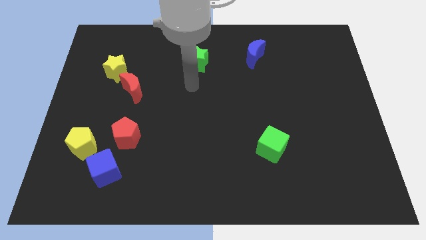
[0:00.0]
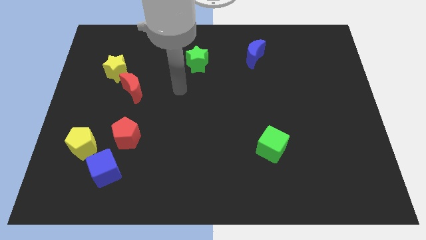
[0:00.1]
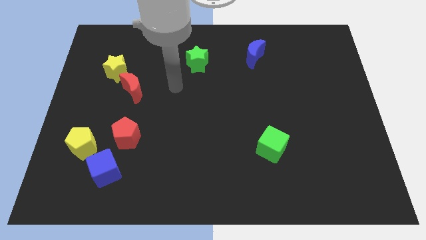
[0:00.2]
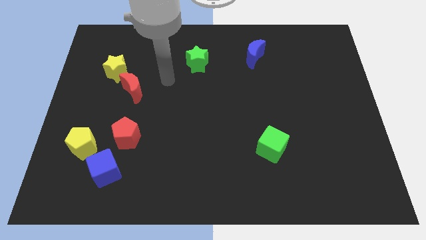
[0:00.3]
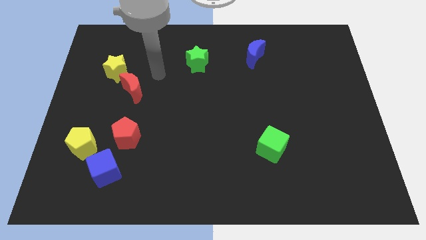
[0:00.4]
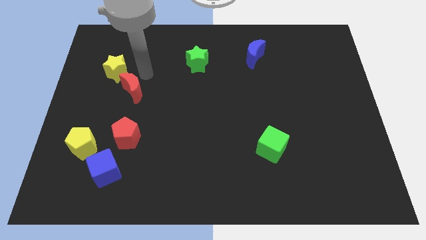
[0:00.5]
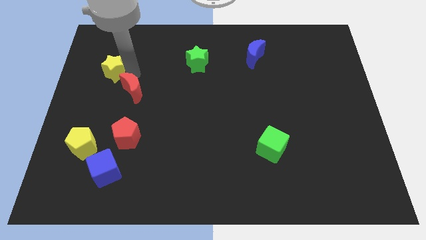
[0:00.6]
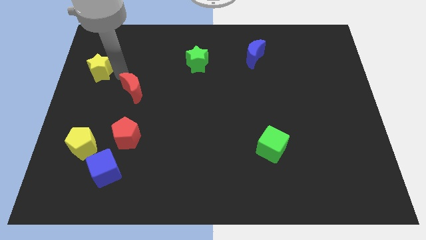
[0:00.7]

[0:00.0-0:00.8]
move the red moon away from the yellow star

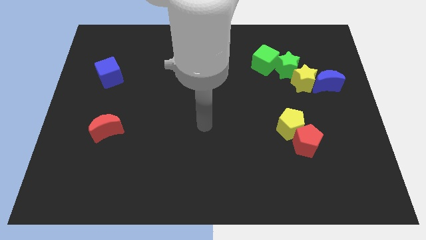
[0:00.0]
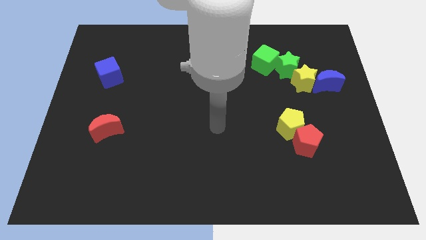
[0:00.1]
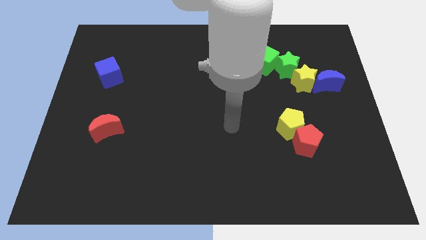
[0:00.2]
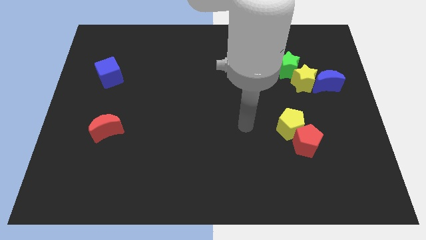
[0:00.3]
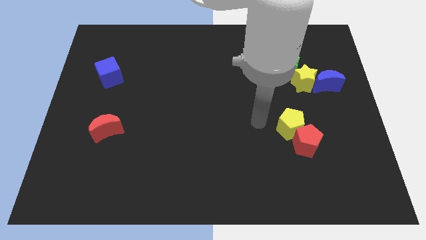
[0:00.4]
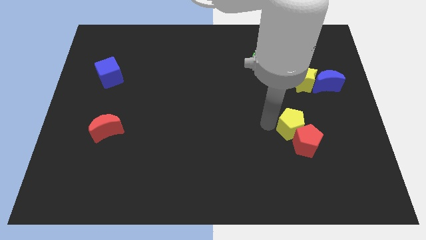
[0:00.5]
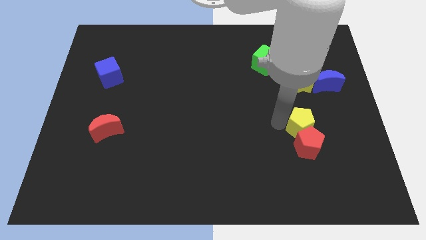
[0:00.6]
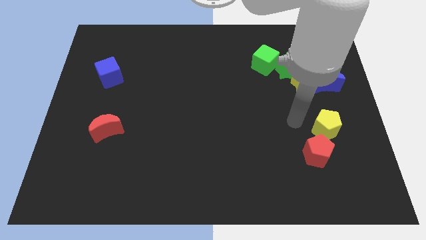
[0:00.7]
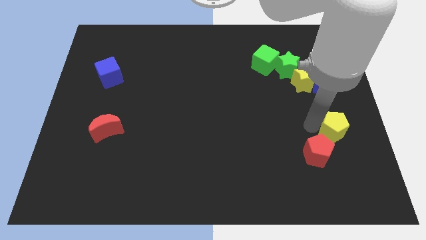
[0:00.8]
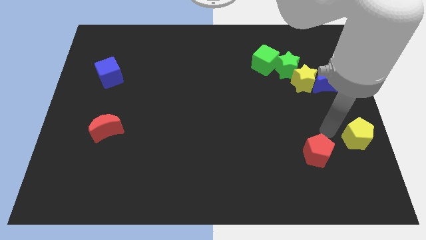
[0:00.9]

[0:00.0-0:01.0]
separate the red pentagon from the yellow pentagon

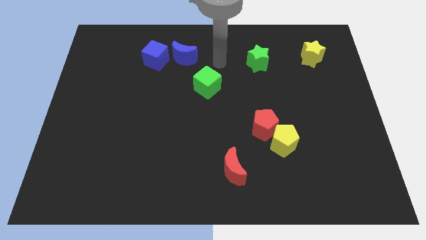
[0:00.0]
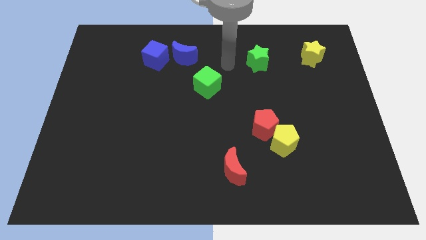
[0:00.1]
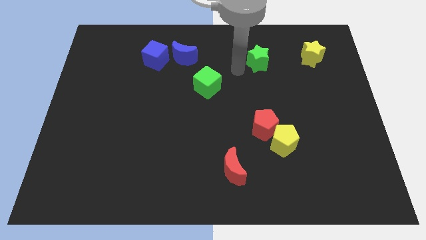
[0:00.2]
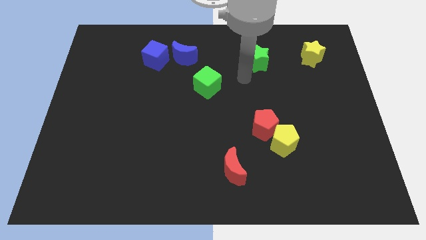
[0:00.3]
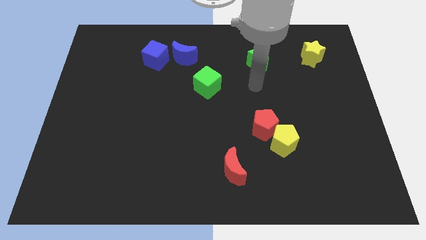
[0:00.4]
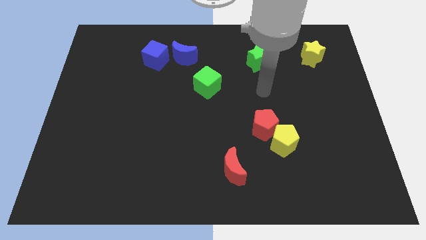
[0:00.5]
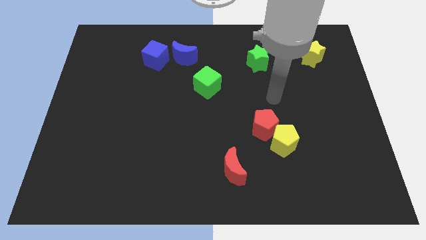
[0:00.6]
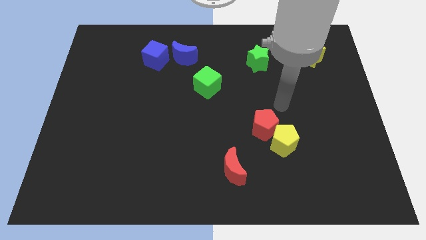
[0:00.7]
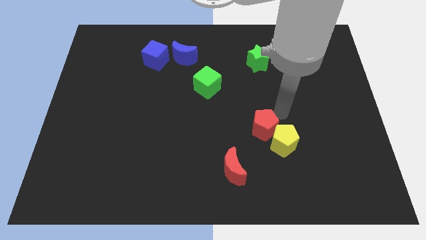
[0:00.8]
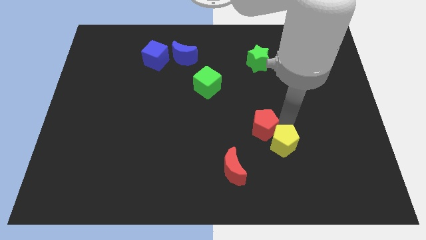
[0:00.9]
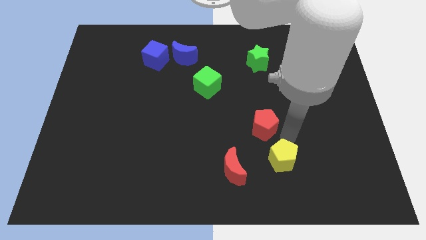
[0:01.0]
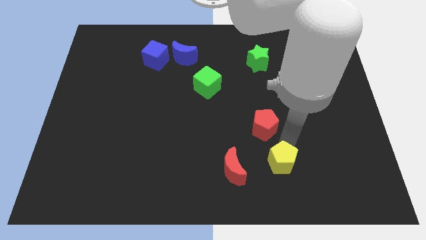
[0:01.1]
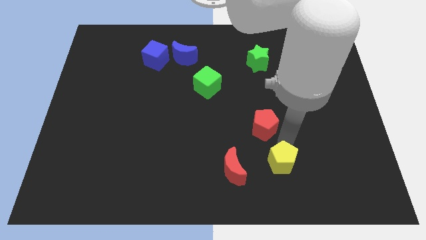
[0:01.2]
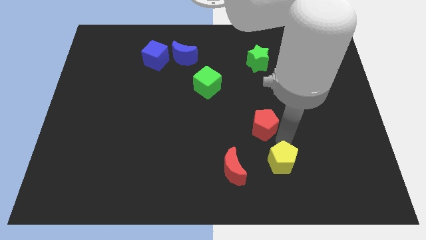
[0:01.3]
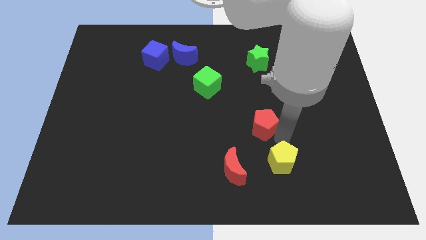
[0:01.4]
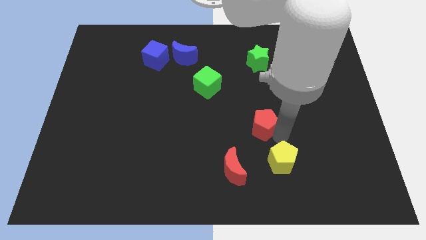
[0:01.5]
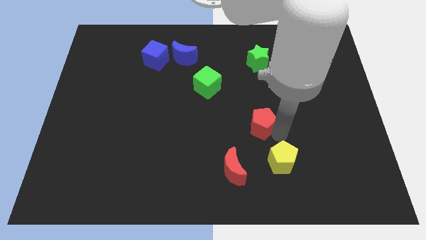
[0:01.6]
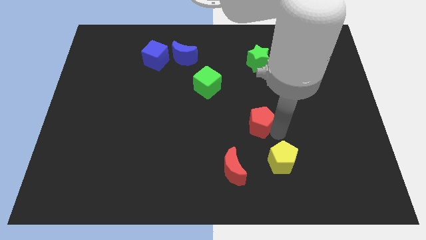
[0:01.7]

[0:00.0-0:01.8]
move the red pentagon away from the yellow pentagon

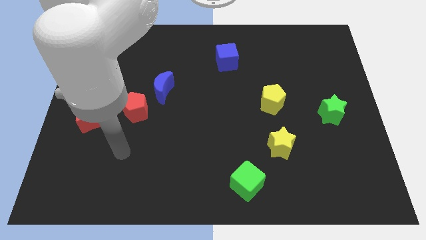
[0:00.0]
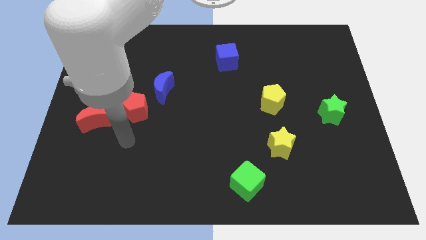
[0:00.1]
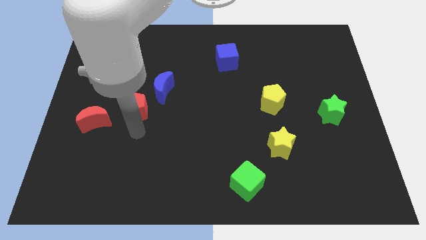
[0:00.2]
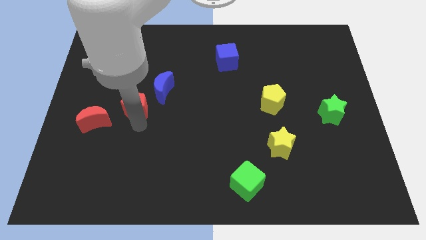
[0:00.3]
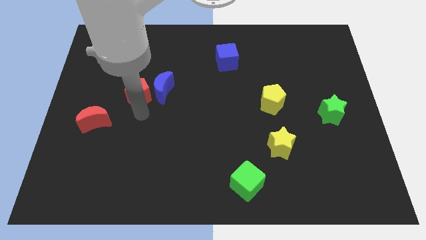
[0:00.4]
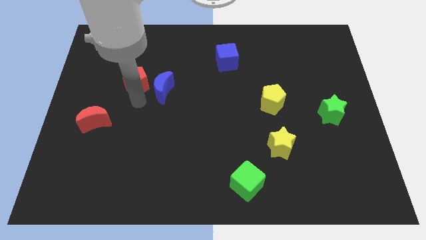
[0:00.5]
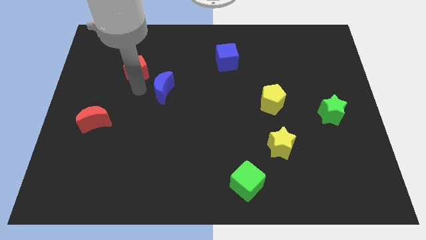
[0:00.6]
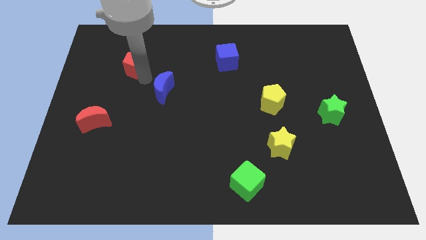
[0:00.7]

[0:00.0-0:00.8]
move the blue moon away from the red pentagon

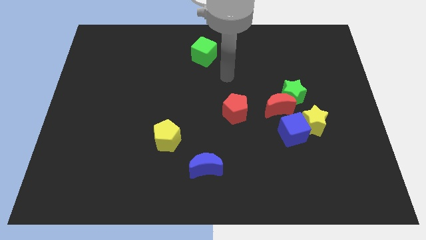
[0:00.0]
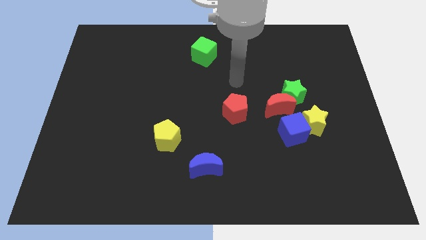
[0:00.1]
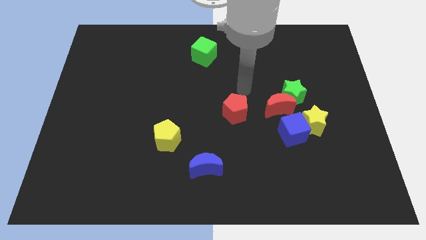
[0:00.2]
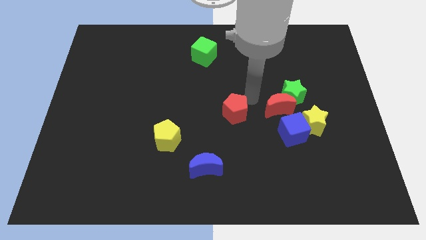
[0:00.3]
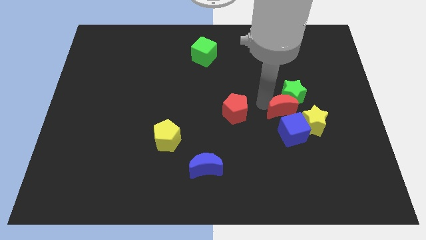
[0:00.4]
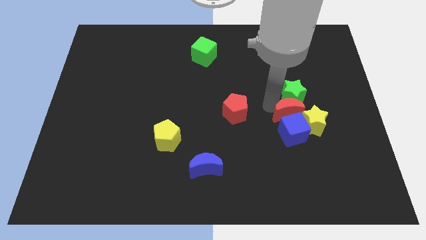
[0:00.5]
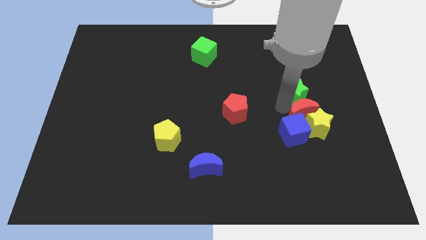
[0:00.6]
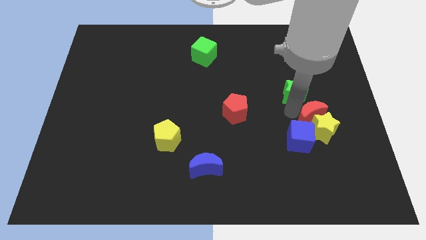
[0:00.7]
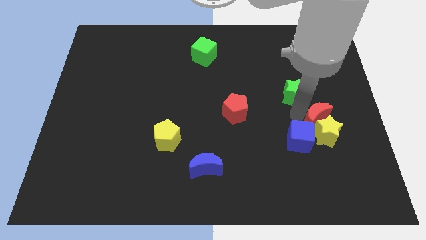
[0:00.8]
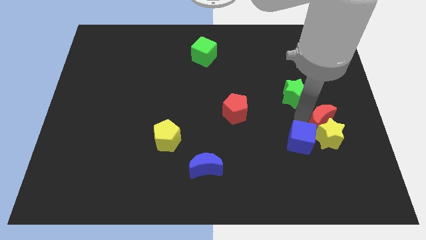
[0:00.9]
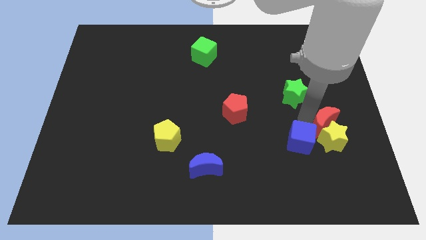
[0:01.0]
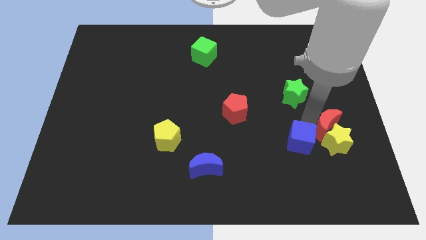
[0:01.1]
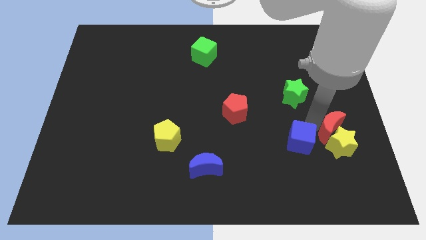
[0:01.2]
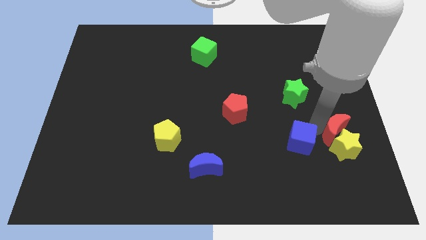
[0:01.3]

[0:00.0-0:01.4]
pull the yellow star apart from the group of blocks

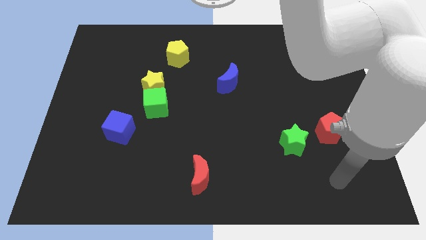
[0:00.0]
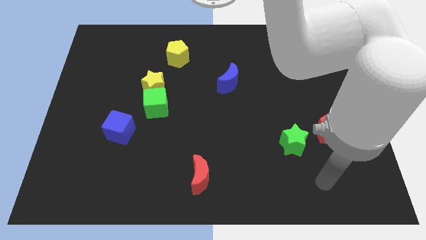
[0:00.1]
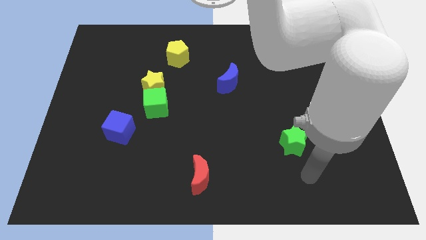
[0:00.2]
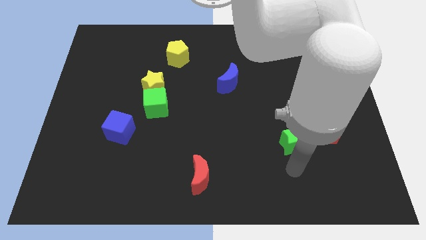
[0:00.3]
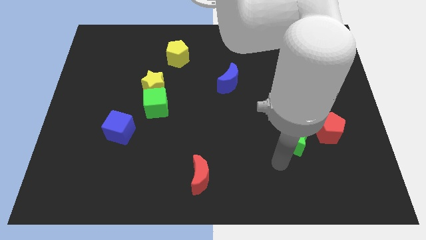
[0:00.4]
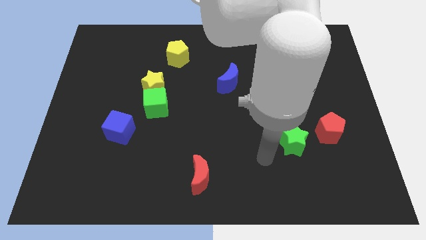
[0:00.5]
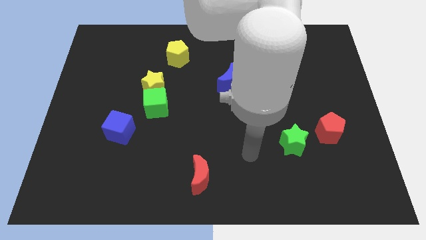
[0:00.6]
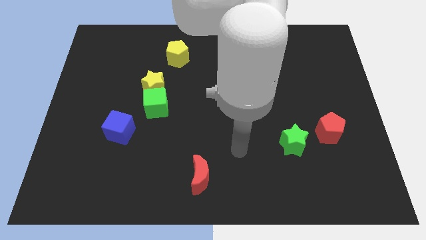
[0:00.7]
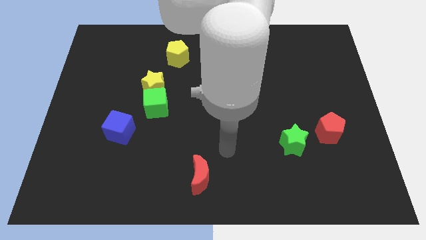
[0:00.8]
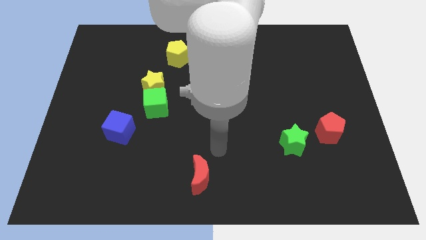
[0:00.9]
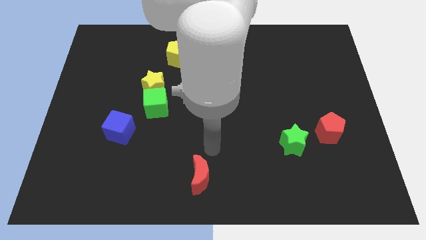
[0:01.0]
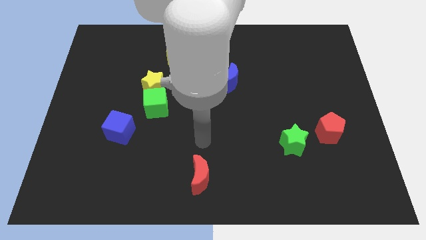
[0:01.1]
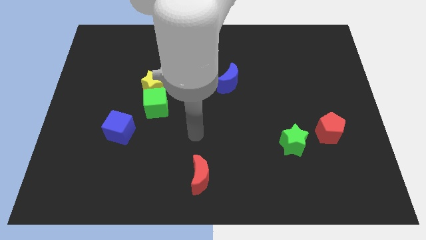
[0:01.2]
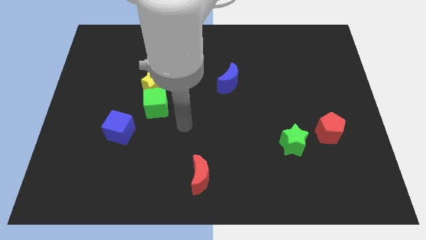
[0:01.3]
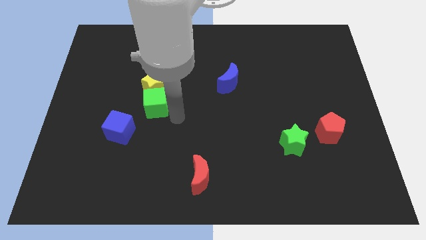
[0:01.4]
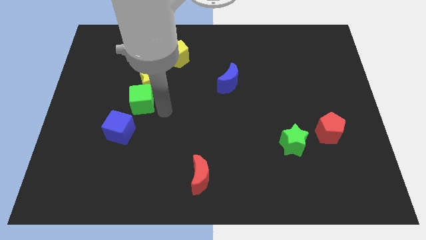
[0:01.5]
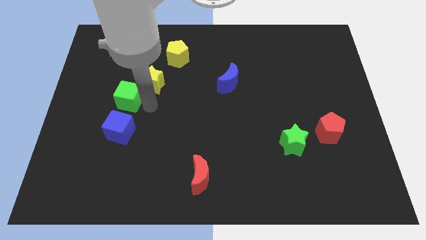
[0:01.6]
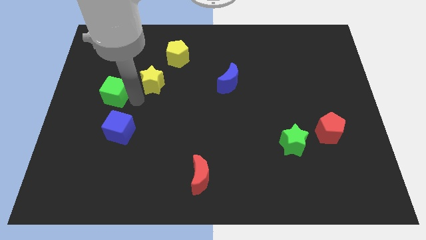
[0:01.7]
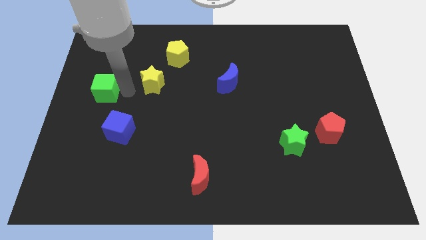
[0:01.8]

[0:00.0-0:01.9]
pull the yellow star apart from the green cube

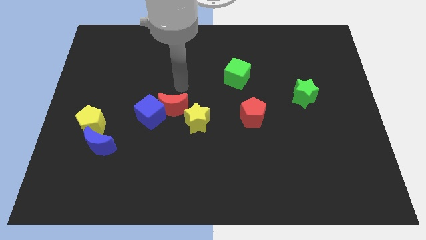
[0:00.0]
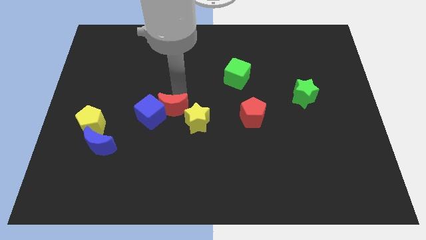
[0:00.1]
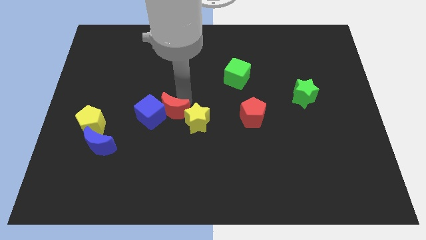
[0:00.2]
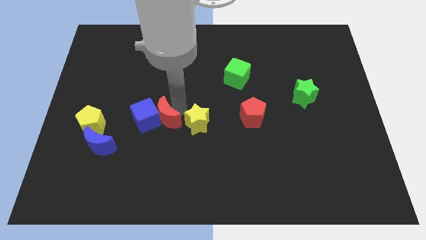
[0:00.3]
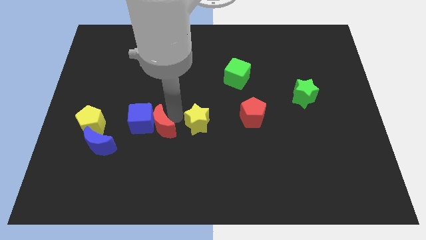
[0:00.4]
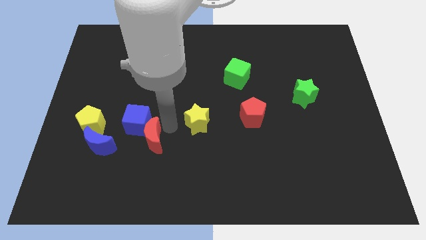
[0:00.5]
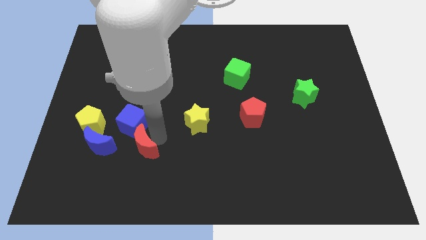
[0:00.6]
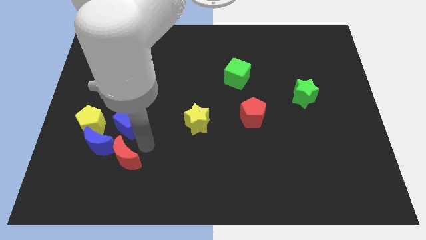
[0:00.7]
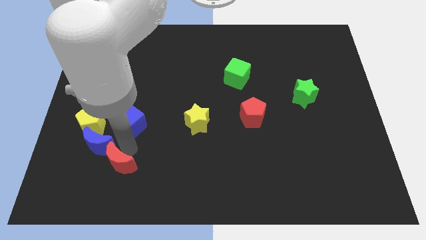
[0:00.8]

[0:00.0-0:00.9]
pull the blue cube apart from the red moon

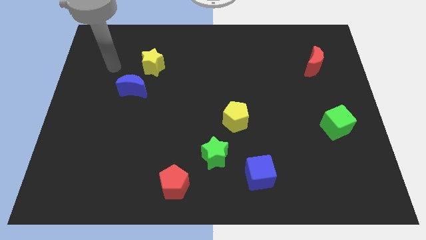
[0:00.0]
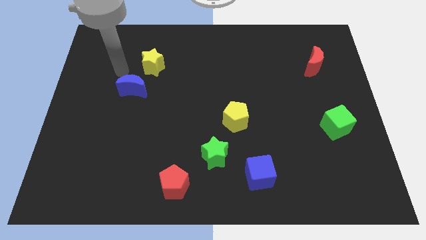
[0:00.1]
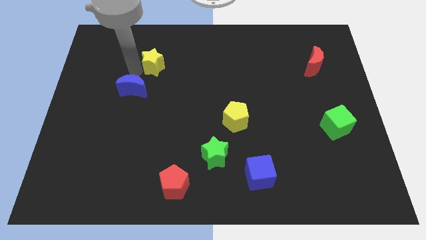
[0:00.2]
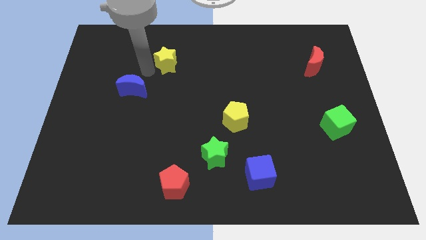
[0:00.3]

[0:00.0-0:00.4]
move the blue moon away from the yellow star

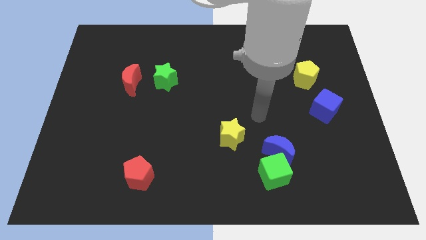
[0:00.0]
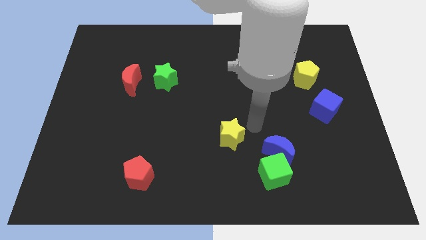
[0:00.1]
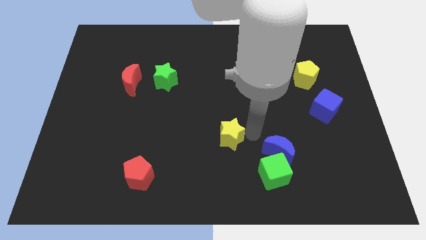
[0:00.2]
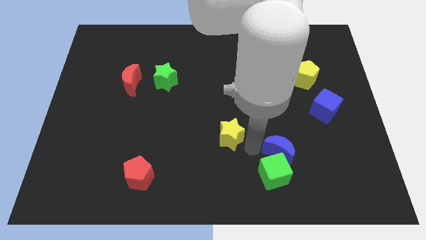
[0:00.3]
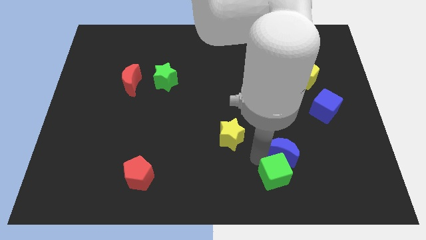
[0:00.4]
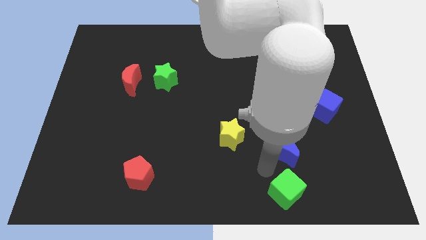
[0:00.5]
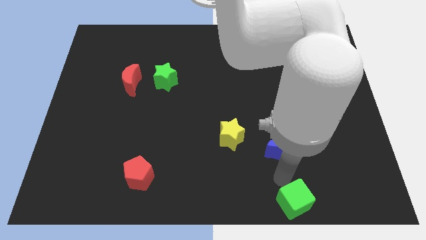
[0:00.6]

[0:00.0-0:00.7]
move the blue moon away from the green cube
